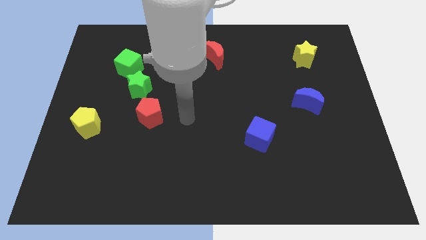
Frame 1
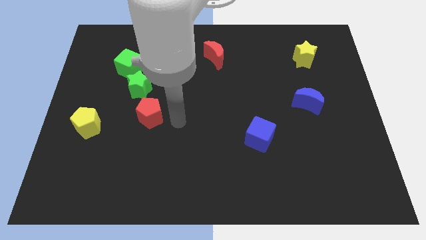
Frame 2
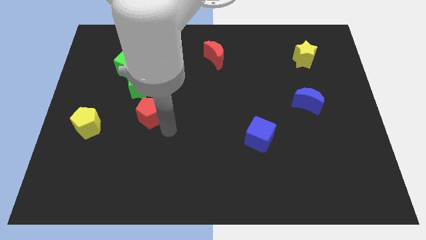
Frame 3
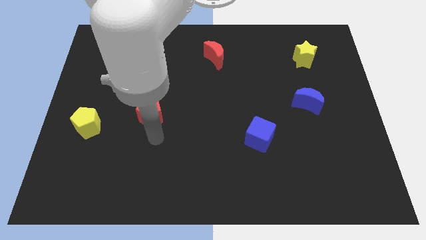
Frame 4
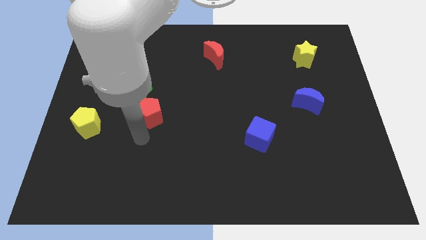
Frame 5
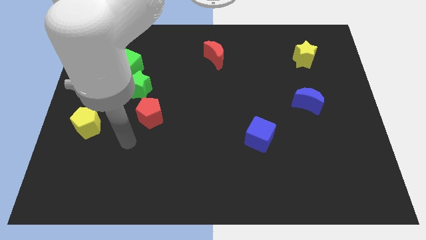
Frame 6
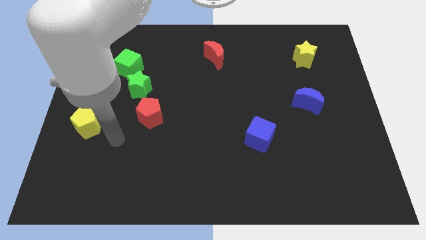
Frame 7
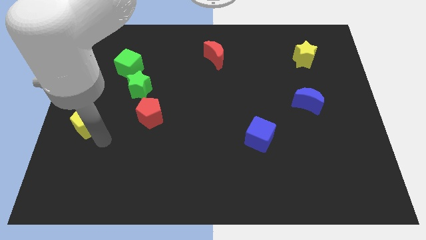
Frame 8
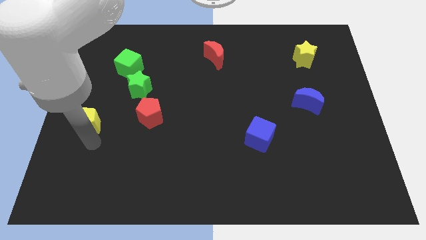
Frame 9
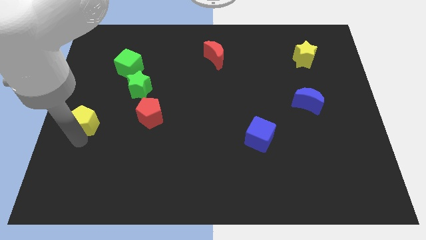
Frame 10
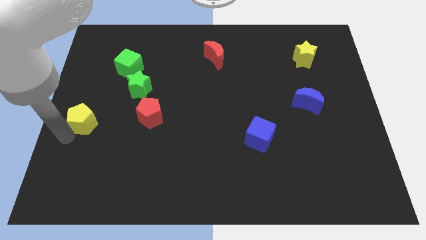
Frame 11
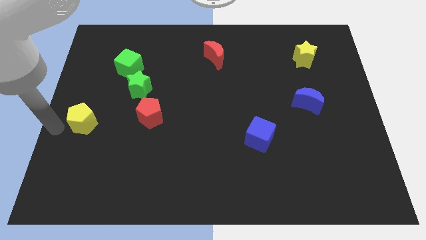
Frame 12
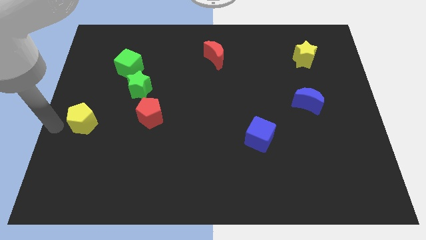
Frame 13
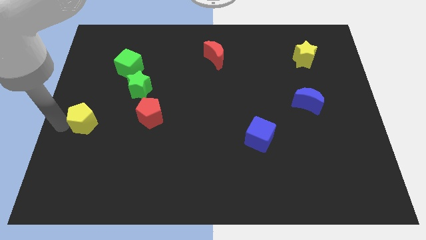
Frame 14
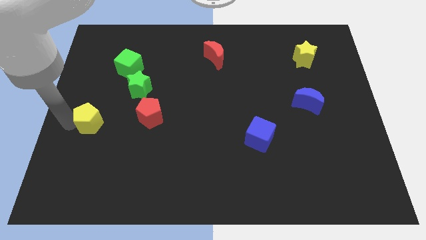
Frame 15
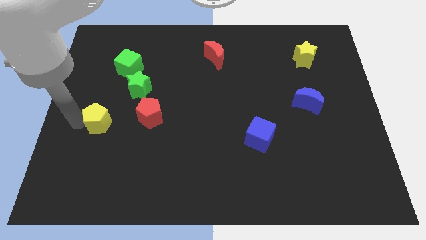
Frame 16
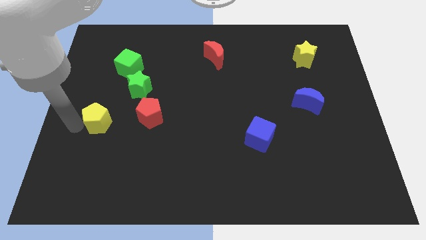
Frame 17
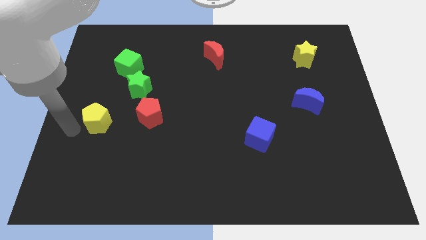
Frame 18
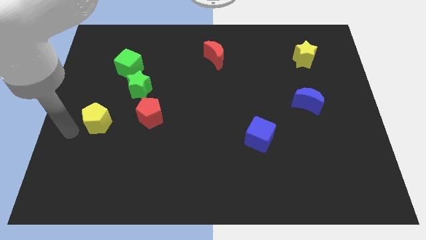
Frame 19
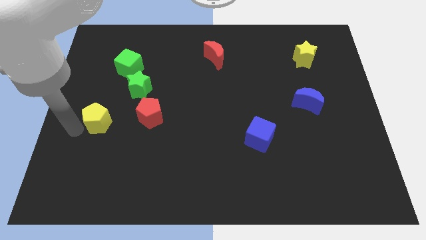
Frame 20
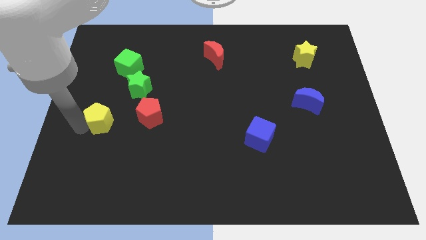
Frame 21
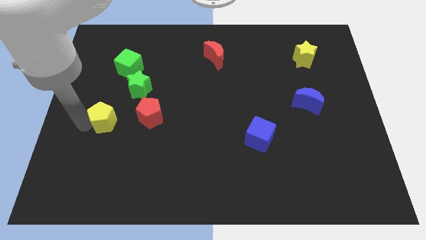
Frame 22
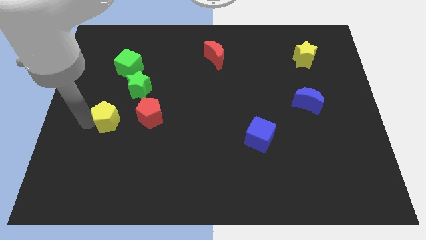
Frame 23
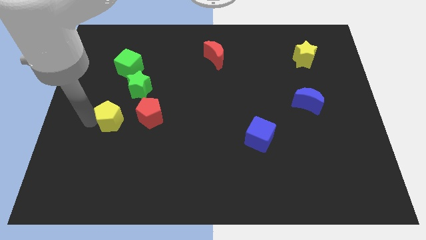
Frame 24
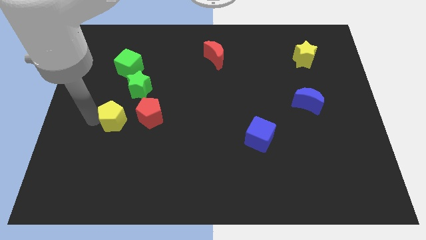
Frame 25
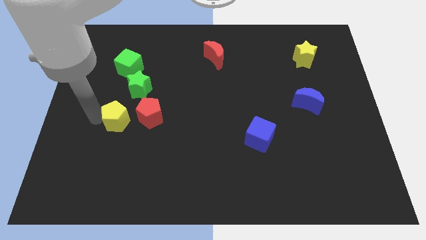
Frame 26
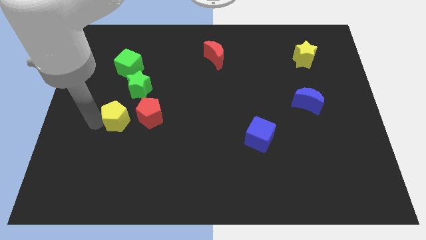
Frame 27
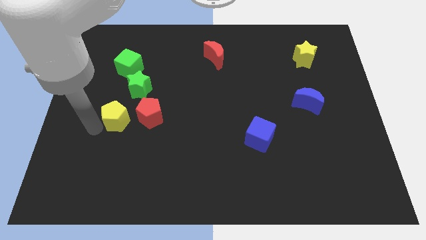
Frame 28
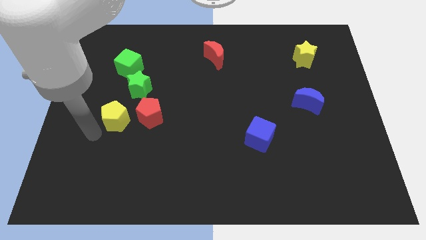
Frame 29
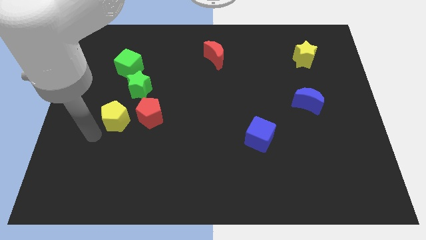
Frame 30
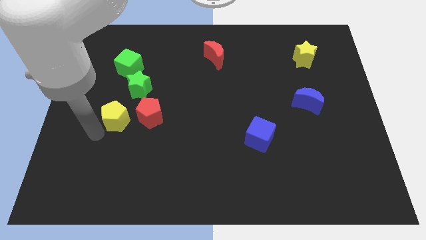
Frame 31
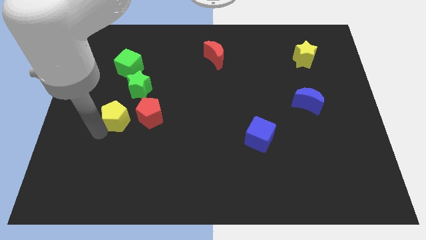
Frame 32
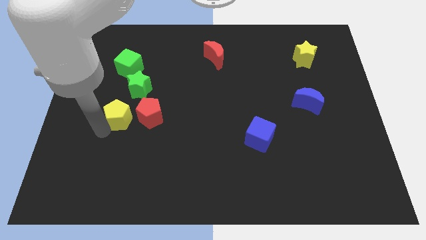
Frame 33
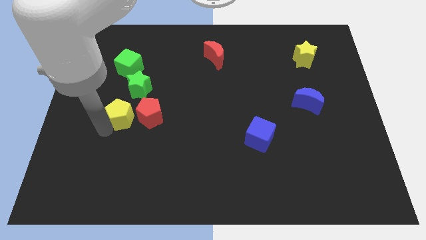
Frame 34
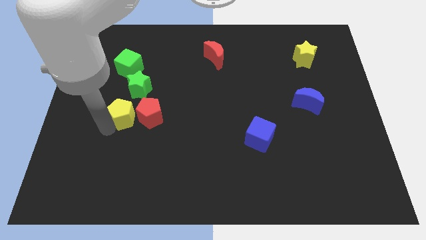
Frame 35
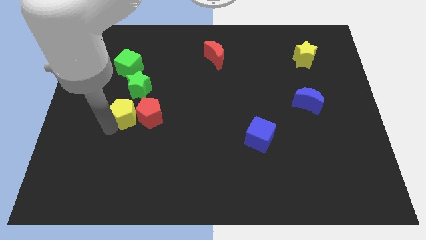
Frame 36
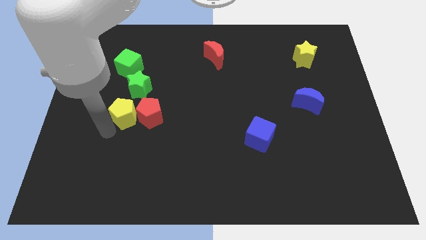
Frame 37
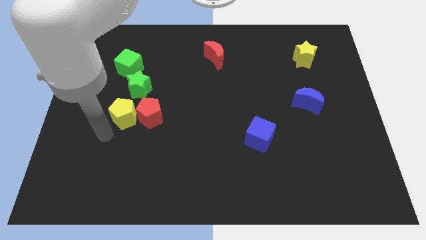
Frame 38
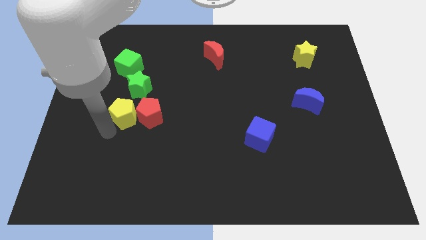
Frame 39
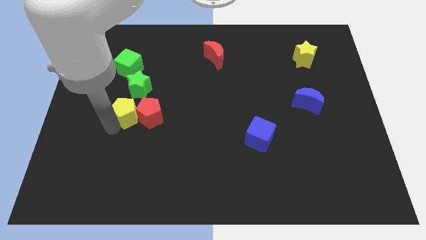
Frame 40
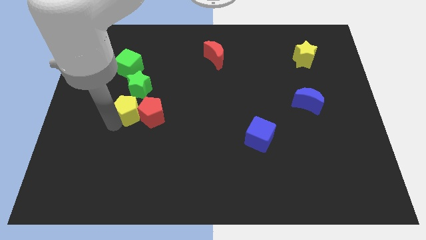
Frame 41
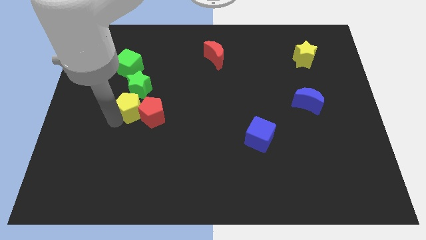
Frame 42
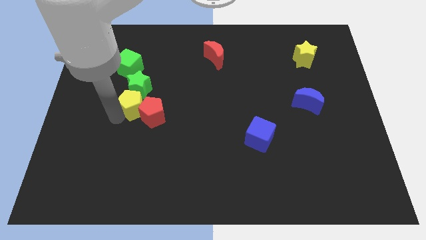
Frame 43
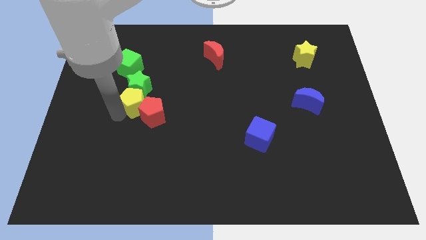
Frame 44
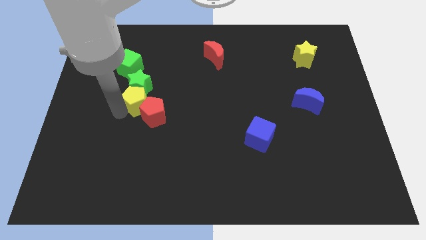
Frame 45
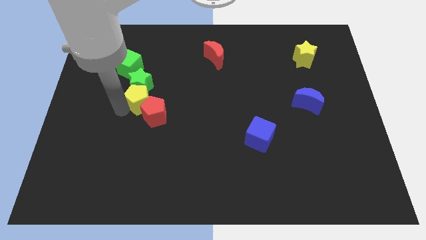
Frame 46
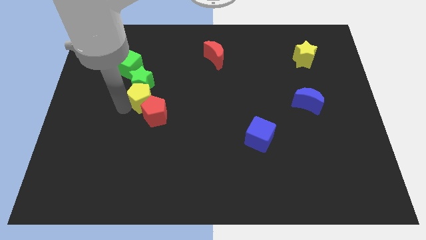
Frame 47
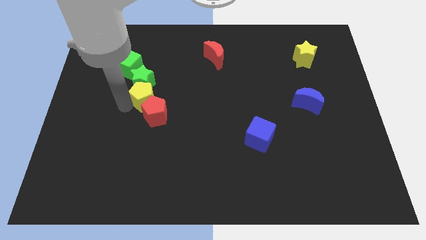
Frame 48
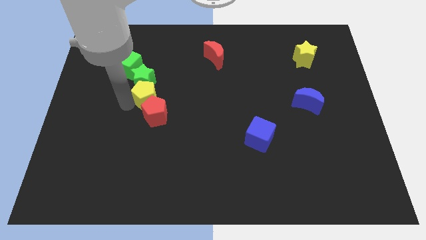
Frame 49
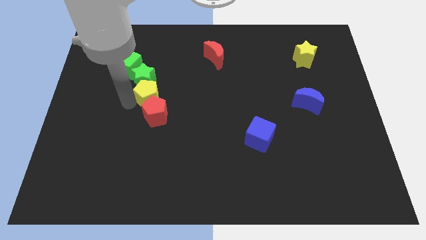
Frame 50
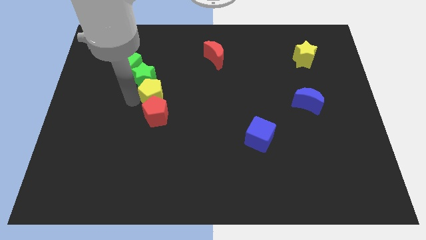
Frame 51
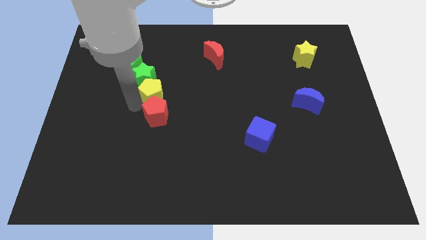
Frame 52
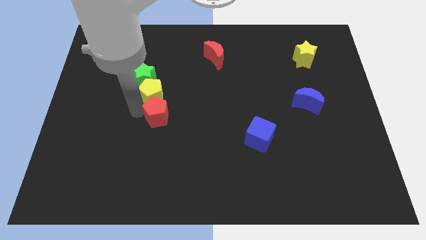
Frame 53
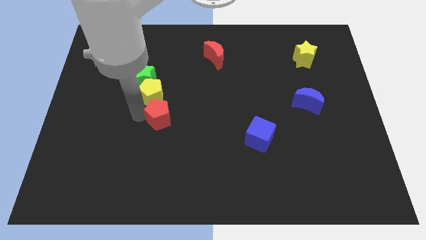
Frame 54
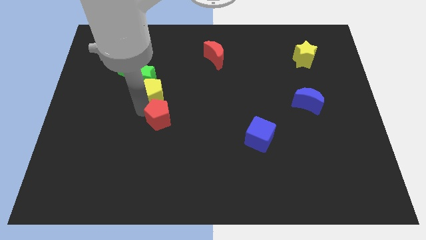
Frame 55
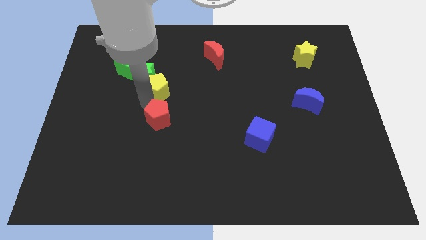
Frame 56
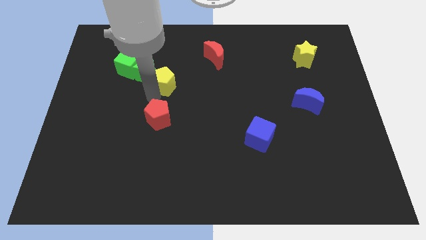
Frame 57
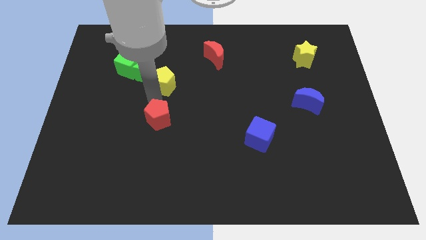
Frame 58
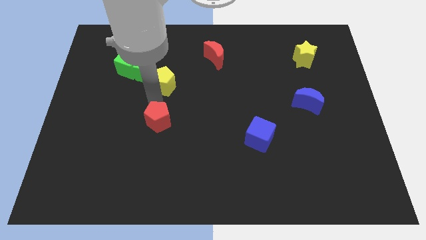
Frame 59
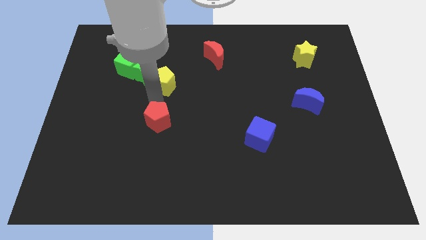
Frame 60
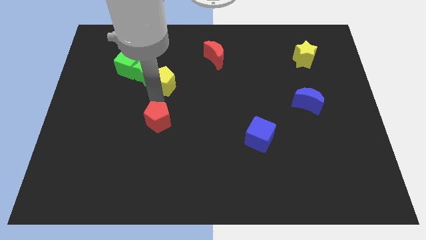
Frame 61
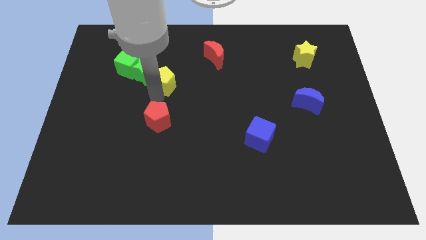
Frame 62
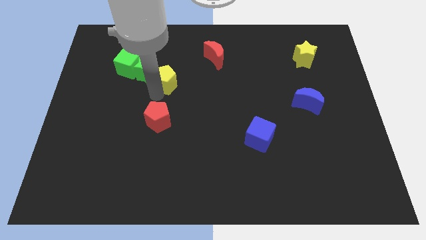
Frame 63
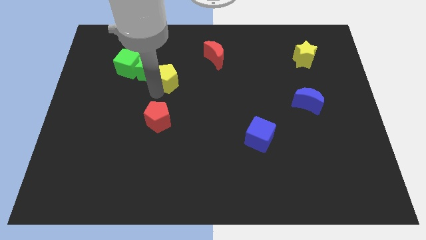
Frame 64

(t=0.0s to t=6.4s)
move the yellow pentagon to the right of the green cube

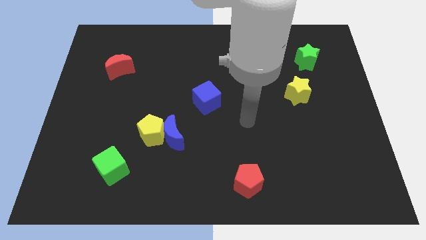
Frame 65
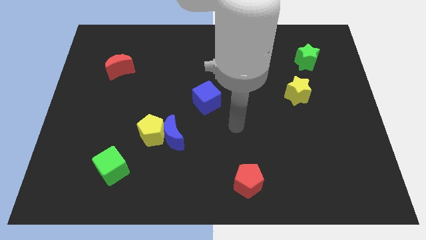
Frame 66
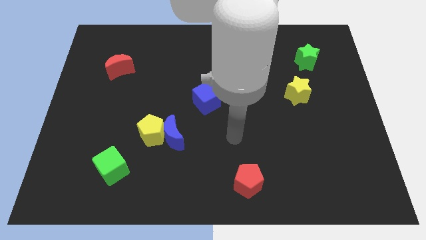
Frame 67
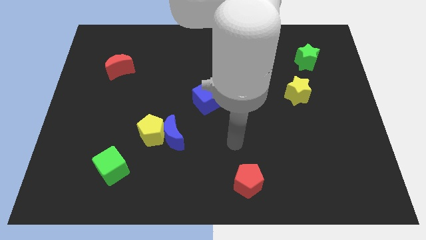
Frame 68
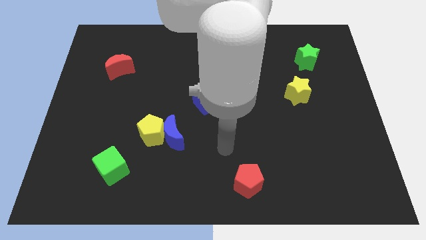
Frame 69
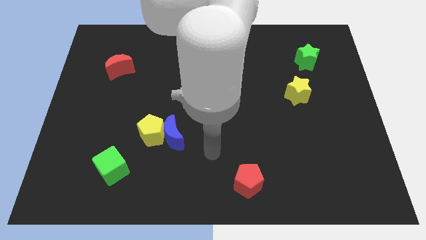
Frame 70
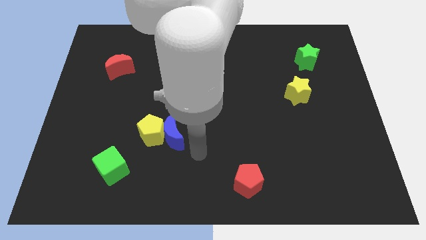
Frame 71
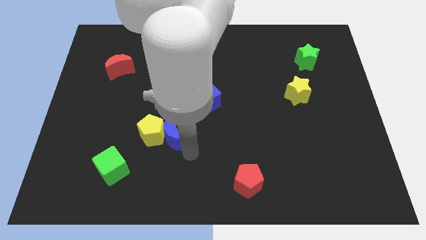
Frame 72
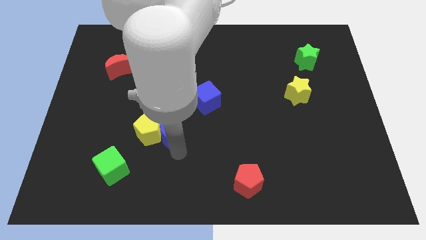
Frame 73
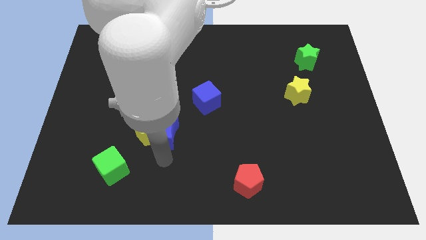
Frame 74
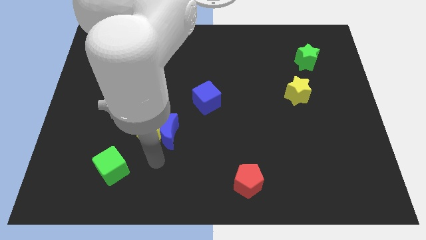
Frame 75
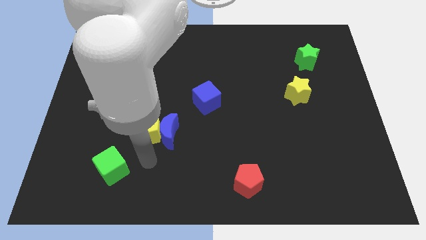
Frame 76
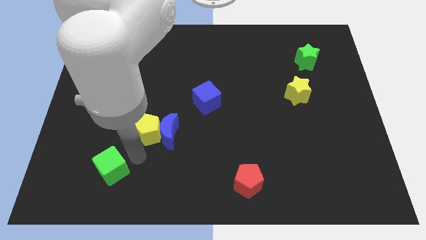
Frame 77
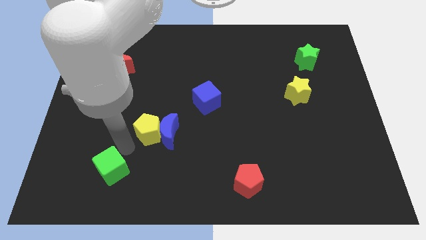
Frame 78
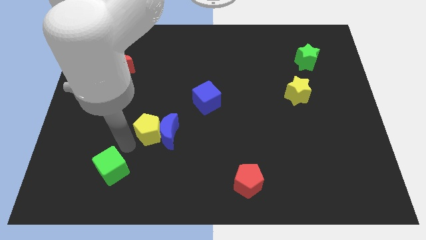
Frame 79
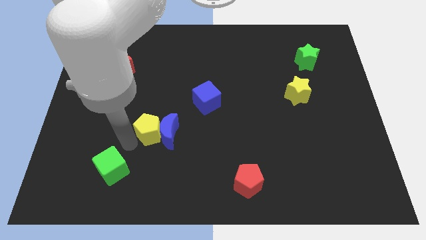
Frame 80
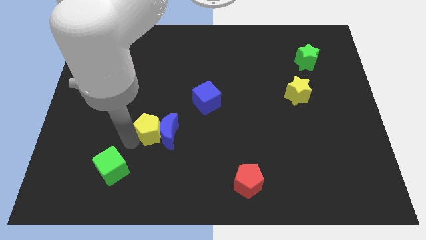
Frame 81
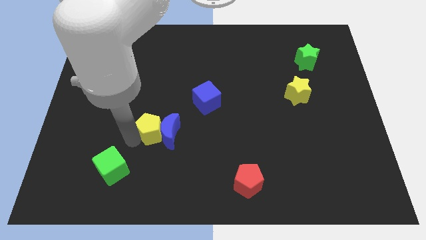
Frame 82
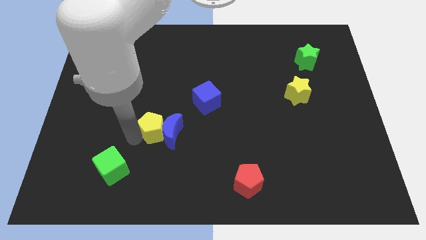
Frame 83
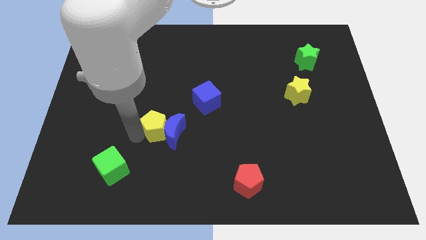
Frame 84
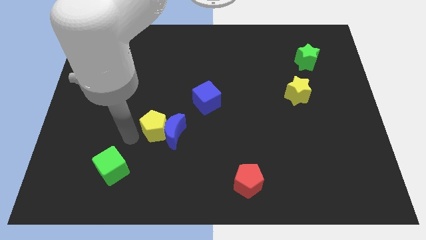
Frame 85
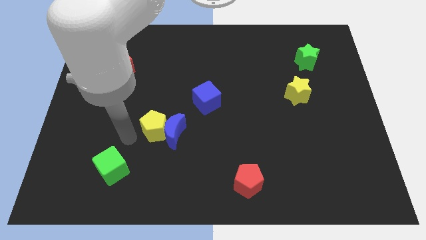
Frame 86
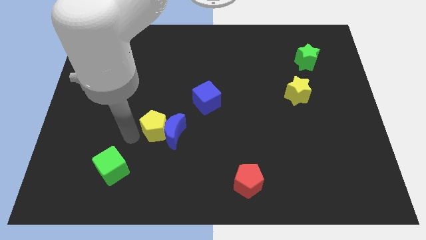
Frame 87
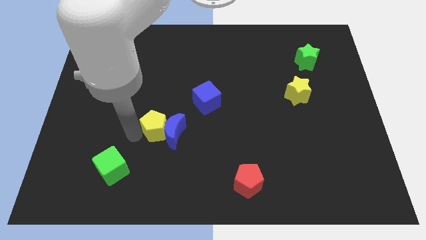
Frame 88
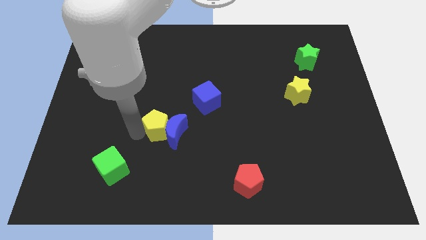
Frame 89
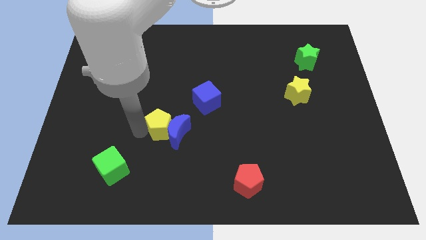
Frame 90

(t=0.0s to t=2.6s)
slide the yellow pentagon to the bottom left of the blue cube
